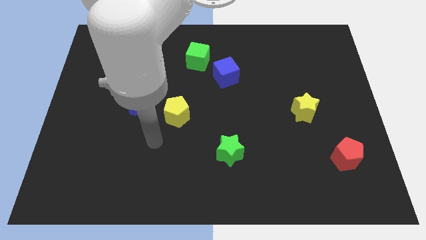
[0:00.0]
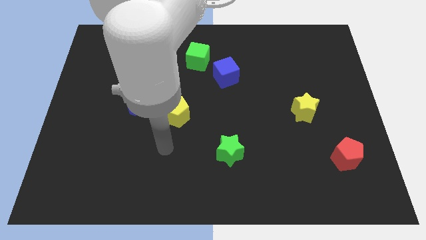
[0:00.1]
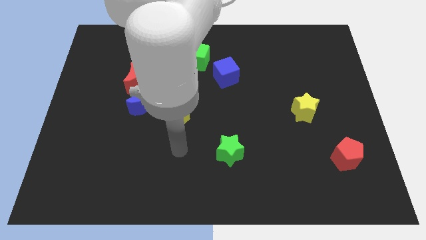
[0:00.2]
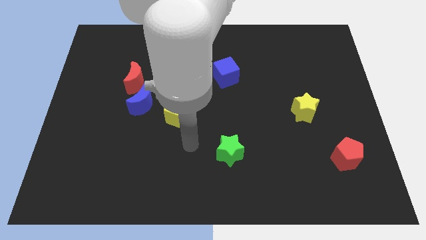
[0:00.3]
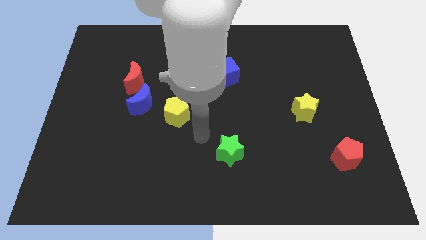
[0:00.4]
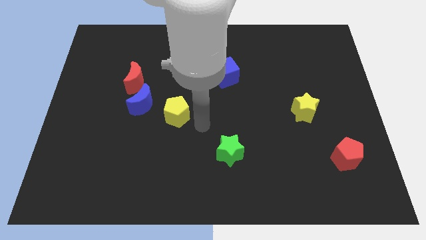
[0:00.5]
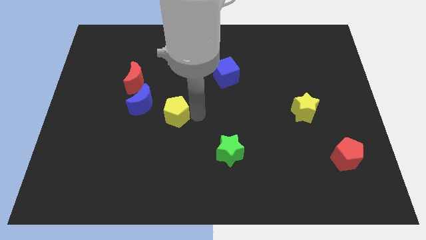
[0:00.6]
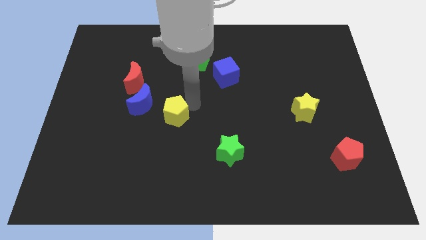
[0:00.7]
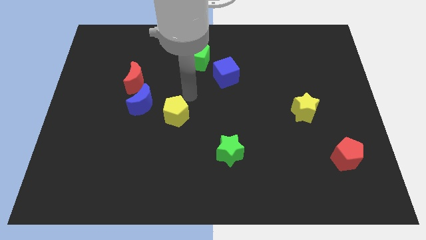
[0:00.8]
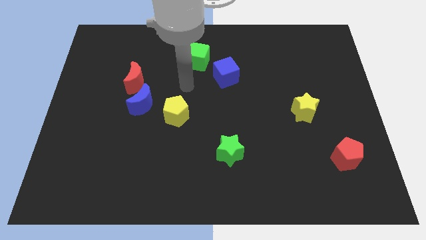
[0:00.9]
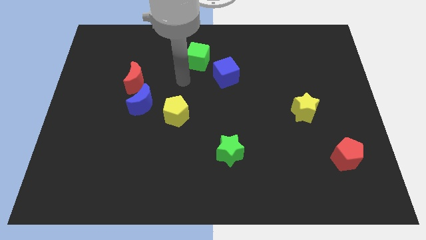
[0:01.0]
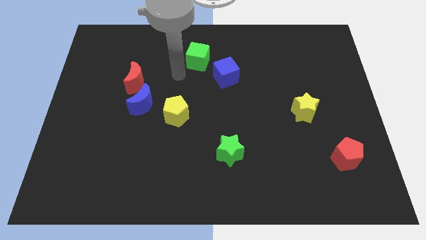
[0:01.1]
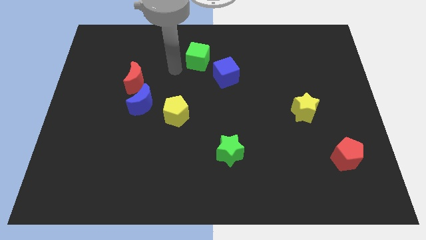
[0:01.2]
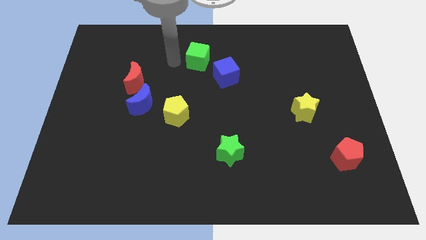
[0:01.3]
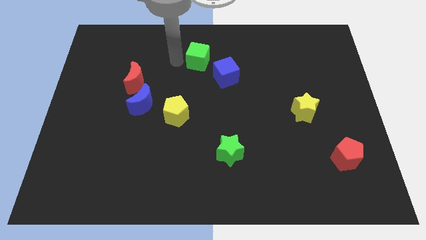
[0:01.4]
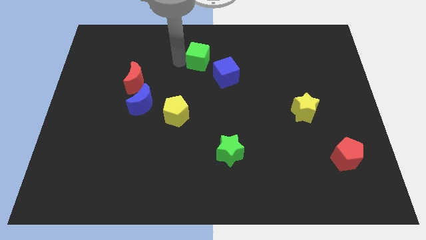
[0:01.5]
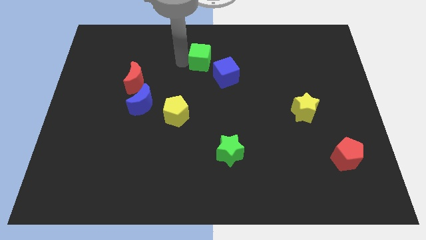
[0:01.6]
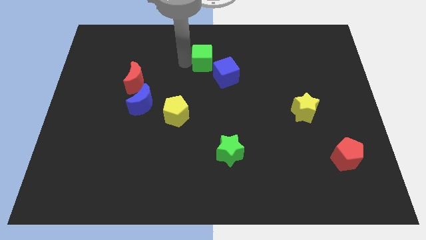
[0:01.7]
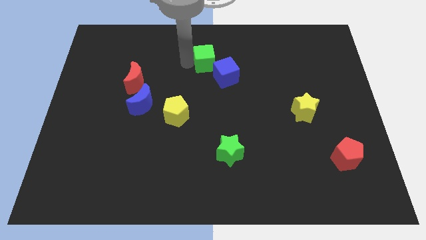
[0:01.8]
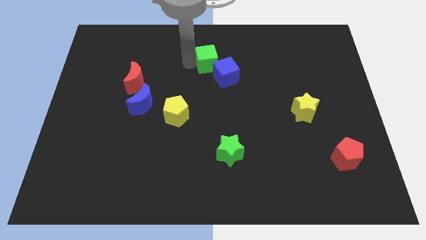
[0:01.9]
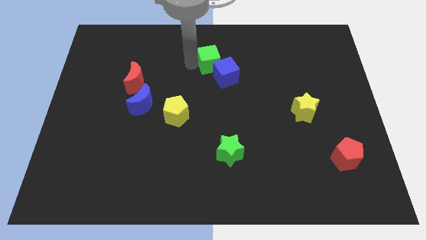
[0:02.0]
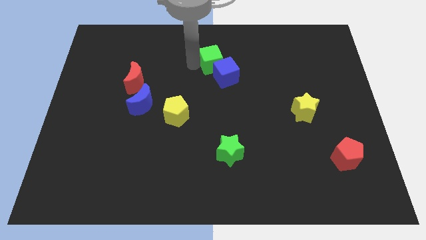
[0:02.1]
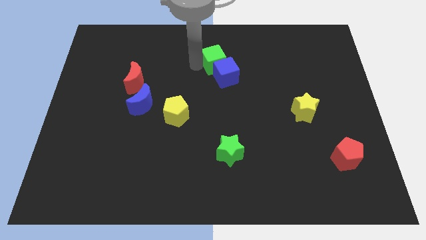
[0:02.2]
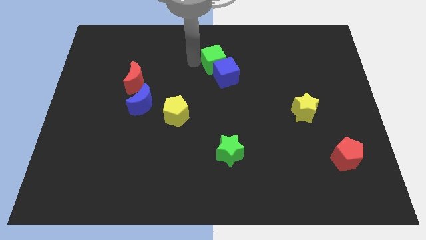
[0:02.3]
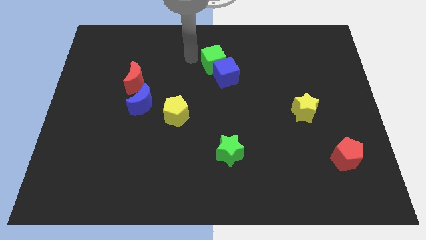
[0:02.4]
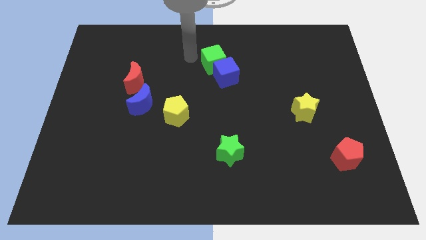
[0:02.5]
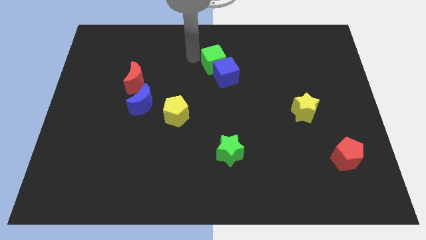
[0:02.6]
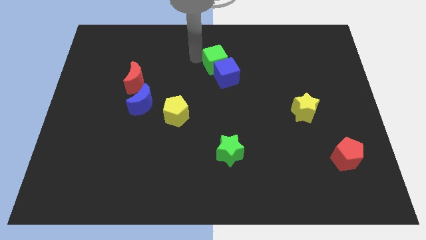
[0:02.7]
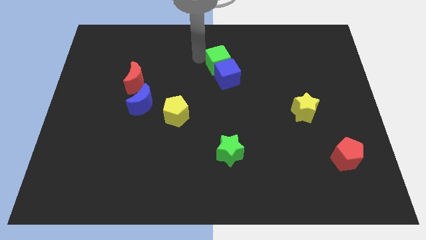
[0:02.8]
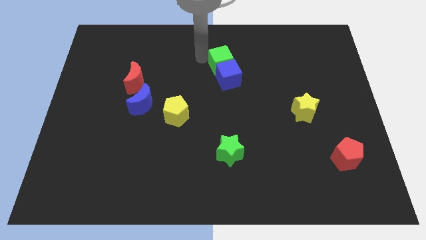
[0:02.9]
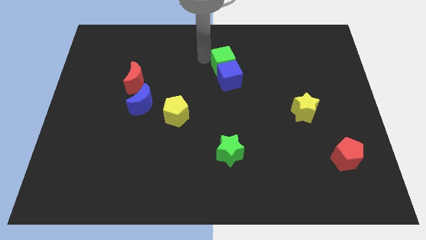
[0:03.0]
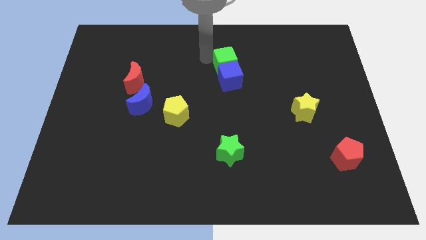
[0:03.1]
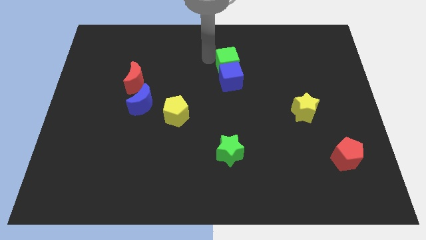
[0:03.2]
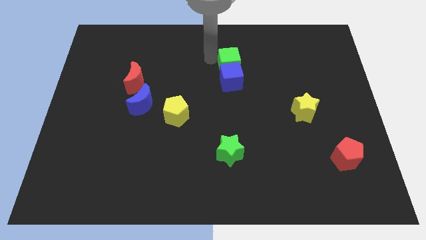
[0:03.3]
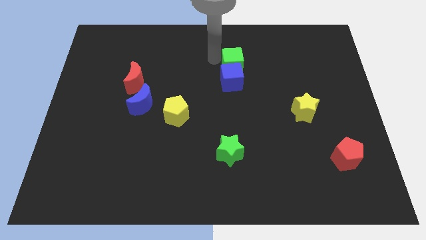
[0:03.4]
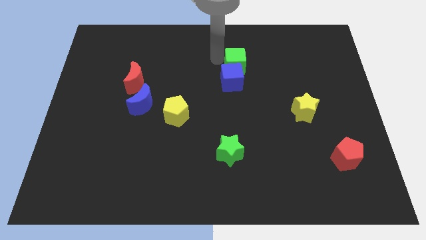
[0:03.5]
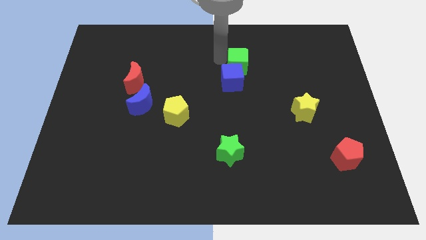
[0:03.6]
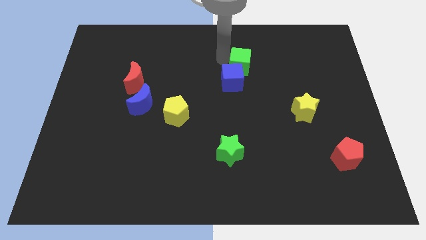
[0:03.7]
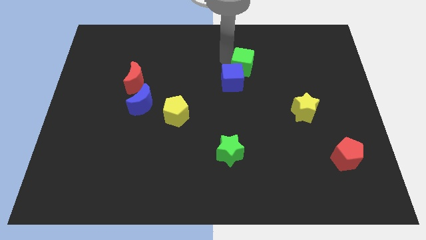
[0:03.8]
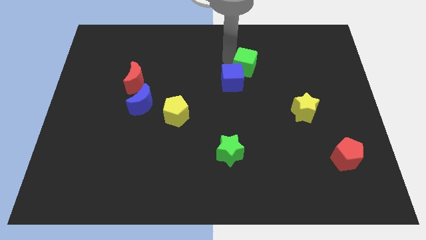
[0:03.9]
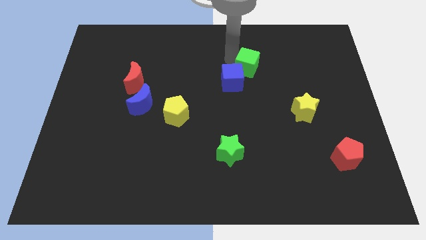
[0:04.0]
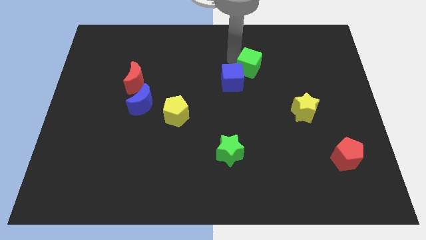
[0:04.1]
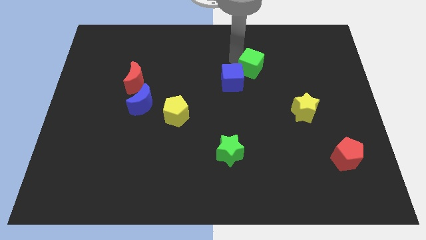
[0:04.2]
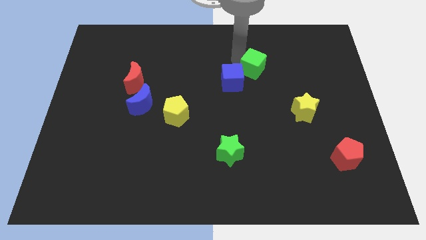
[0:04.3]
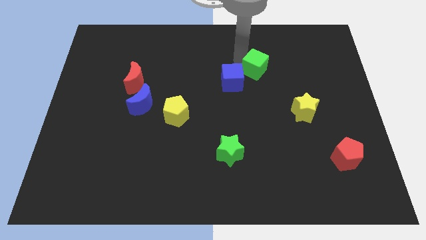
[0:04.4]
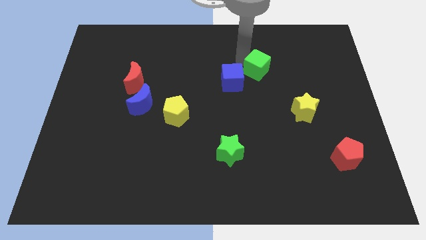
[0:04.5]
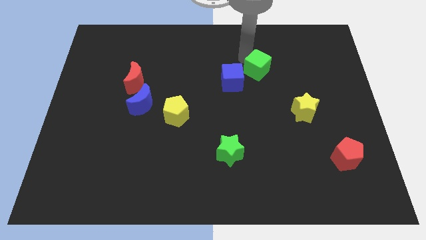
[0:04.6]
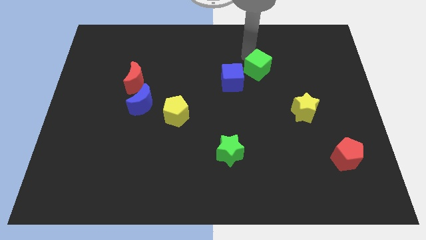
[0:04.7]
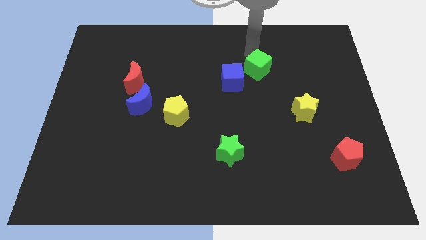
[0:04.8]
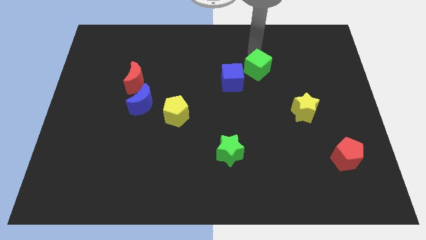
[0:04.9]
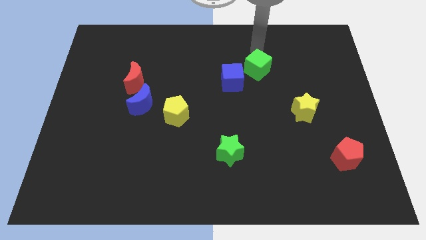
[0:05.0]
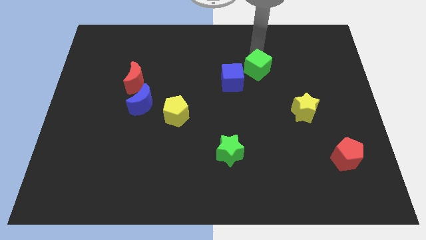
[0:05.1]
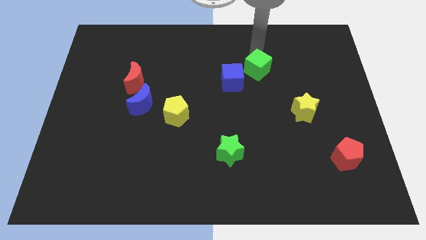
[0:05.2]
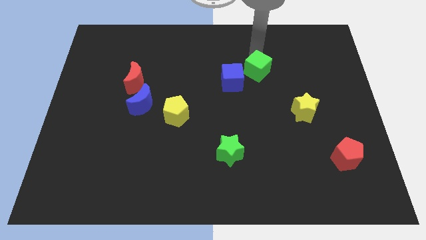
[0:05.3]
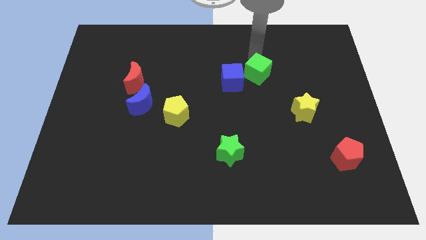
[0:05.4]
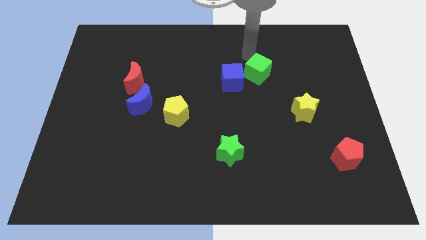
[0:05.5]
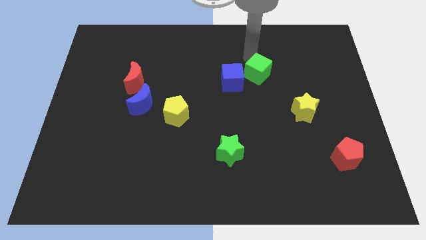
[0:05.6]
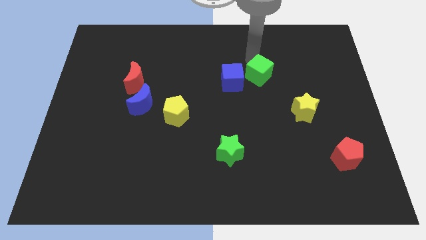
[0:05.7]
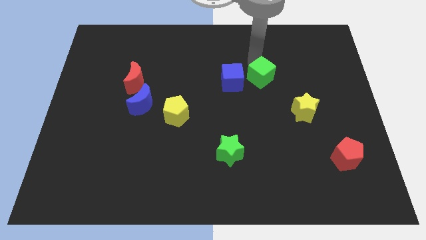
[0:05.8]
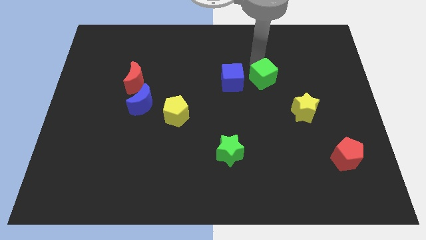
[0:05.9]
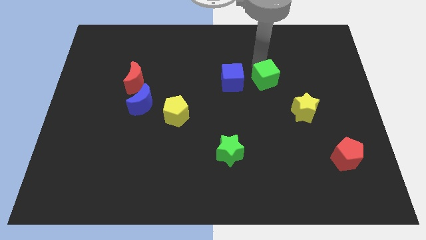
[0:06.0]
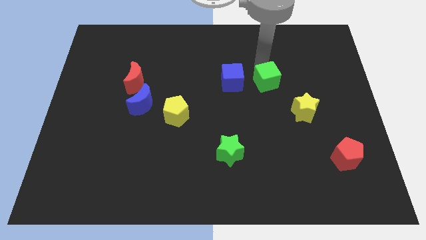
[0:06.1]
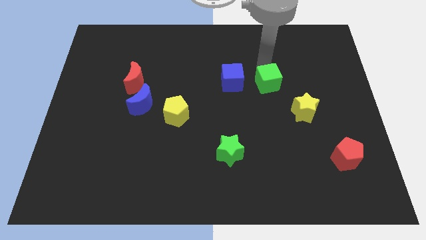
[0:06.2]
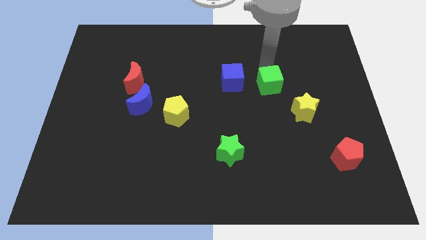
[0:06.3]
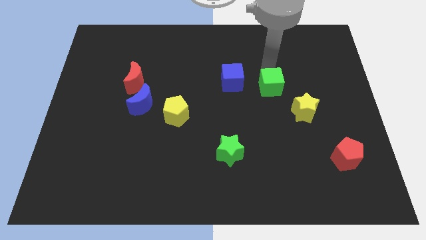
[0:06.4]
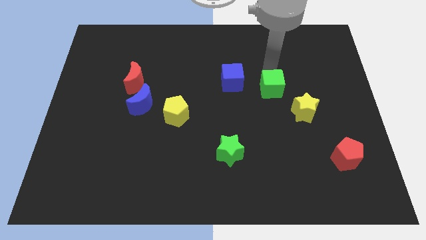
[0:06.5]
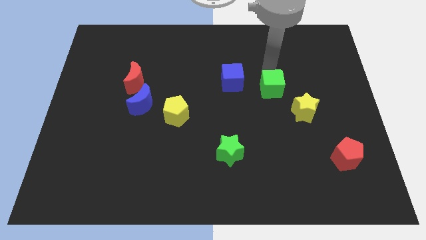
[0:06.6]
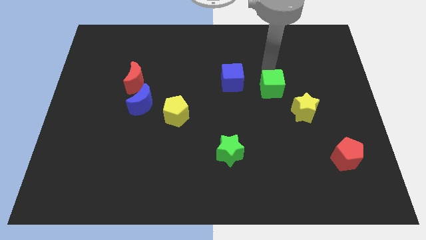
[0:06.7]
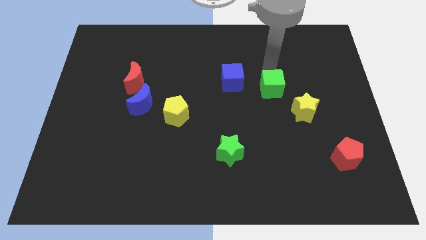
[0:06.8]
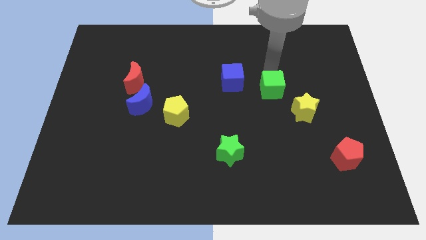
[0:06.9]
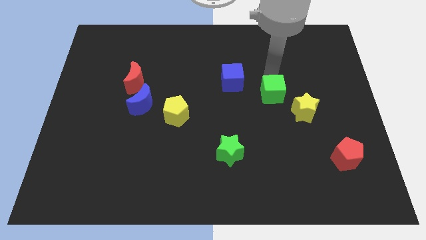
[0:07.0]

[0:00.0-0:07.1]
slide the green cube diagonally downwards and to the right

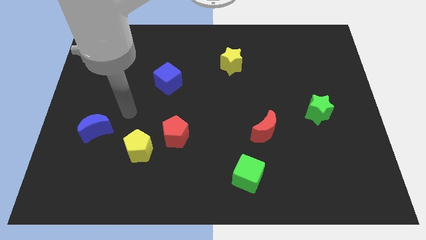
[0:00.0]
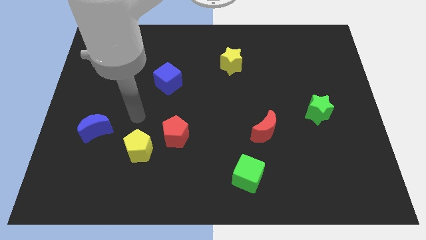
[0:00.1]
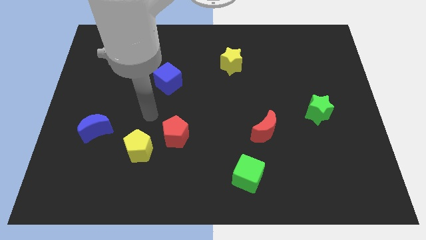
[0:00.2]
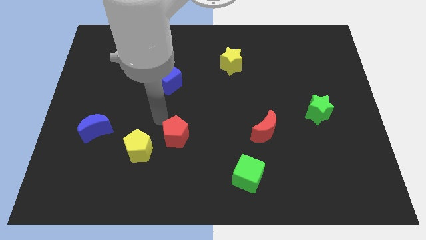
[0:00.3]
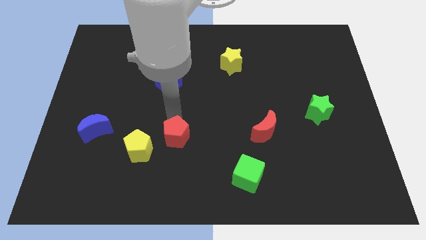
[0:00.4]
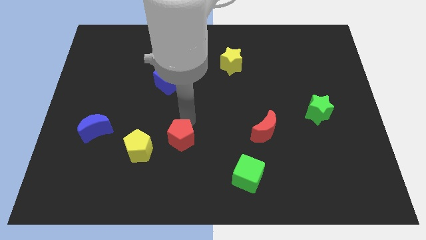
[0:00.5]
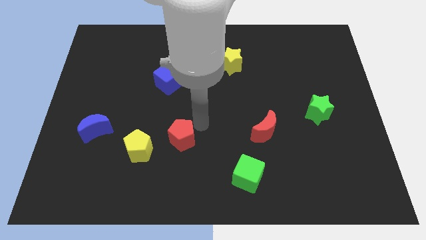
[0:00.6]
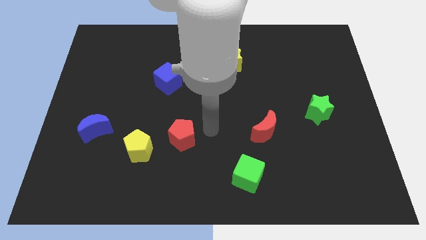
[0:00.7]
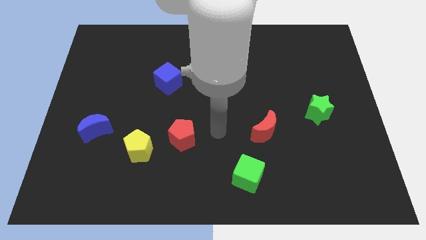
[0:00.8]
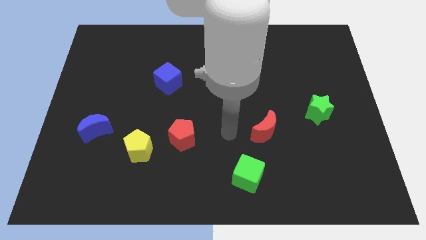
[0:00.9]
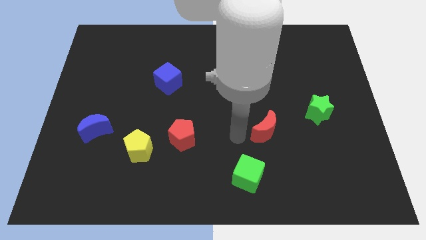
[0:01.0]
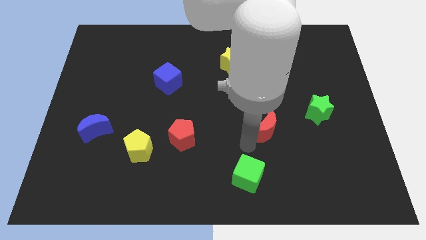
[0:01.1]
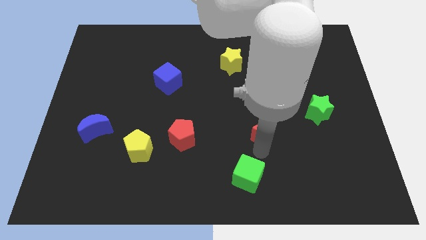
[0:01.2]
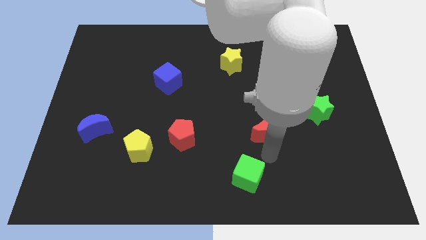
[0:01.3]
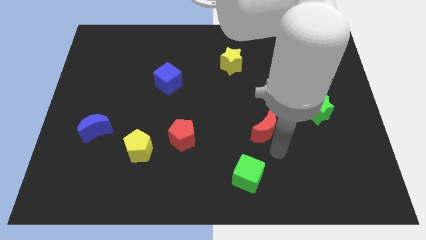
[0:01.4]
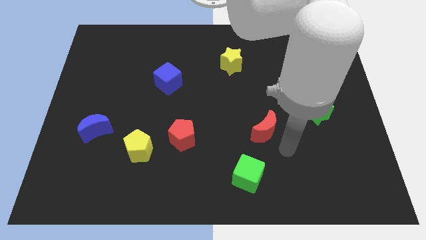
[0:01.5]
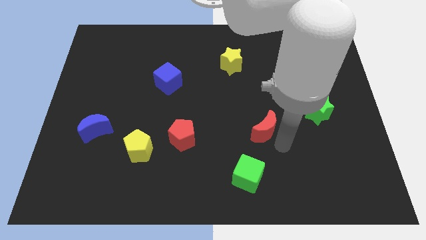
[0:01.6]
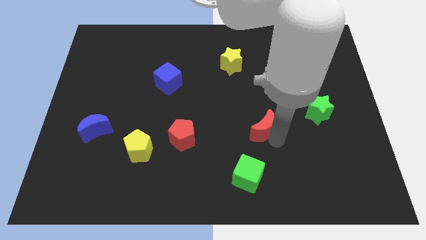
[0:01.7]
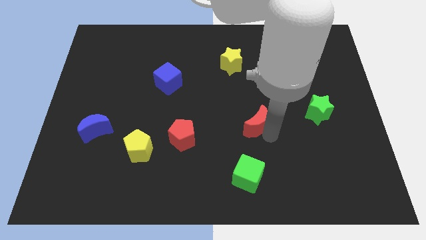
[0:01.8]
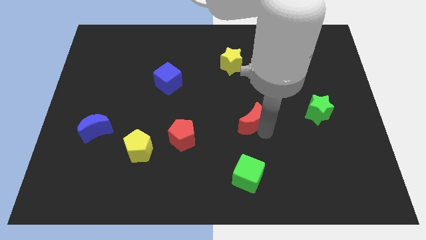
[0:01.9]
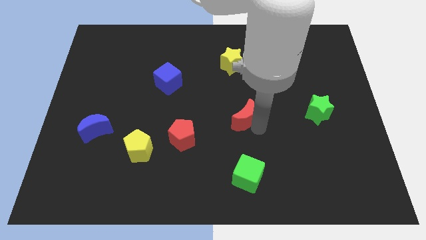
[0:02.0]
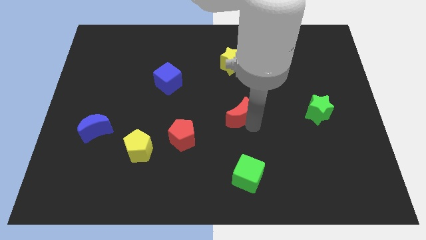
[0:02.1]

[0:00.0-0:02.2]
slightly push the red moon diagonally upwards and to the left
